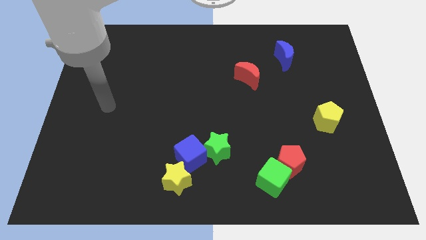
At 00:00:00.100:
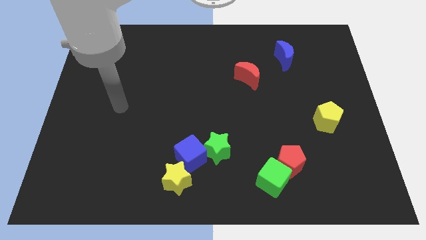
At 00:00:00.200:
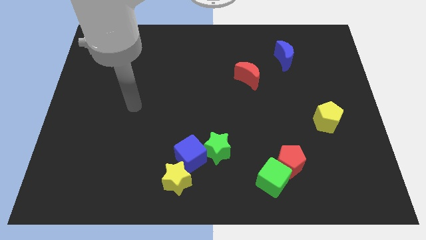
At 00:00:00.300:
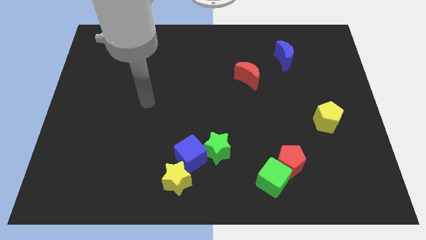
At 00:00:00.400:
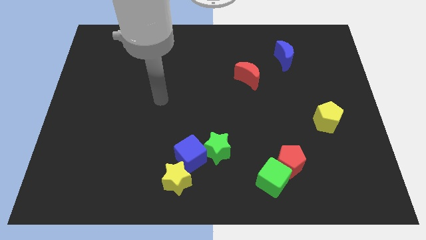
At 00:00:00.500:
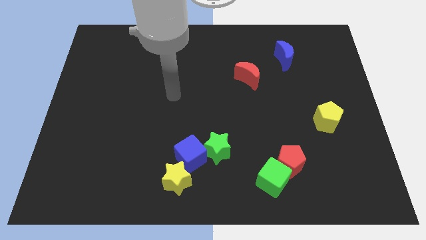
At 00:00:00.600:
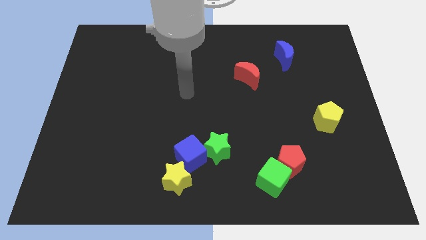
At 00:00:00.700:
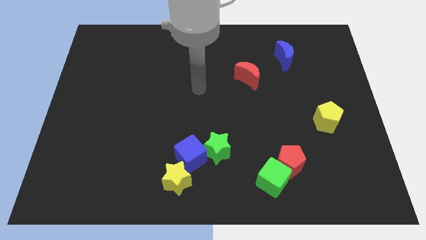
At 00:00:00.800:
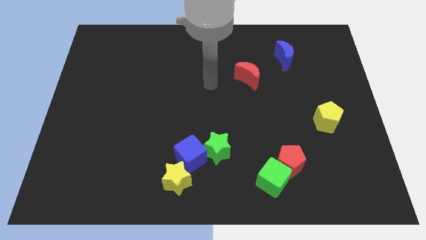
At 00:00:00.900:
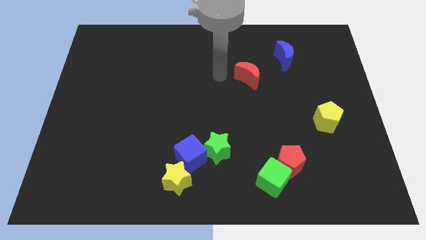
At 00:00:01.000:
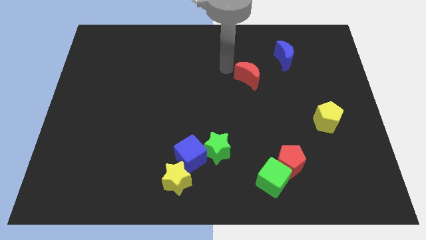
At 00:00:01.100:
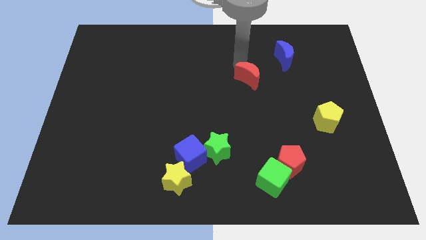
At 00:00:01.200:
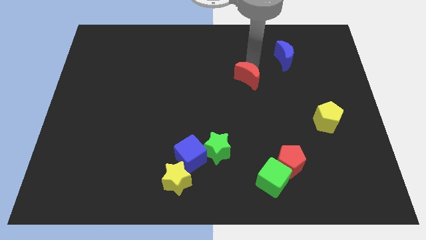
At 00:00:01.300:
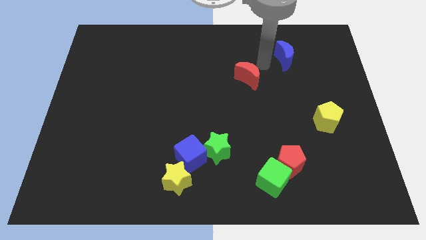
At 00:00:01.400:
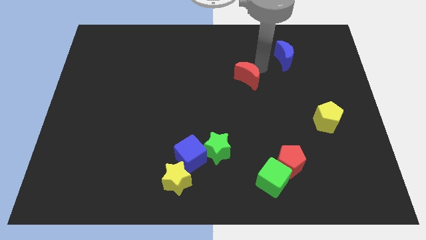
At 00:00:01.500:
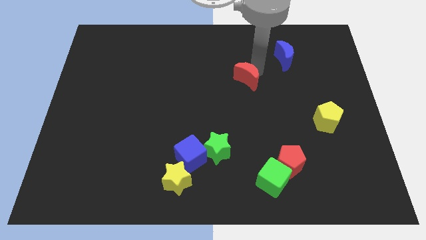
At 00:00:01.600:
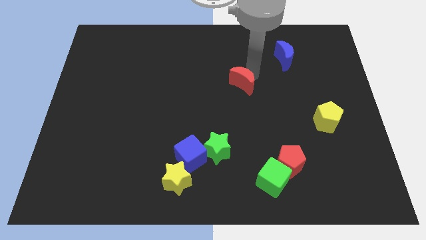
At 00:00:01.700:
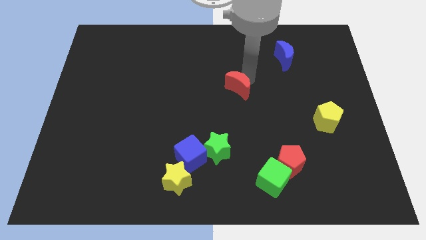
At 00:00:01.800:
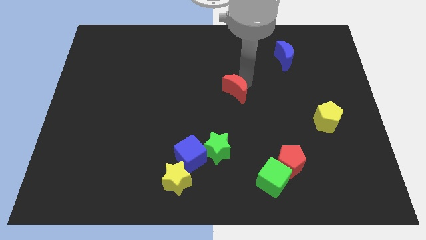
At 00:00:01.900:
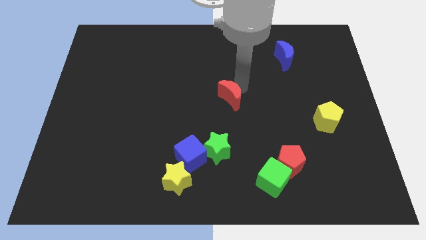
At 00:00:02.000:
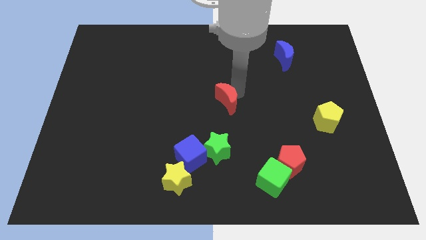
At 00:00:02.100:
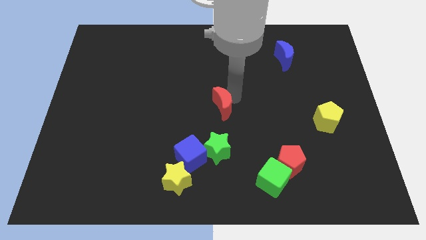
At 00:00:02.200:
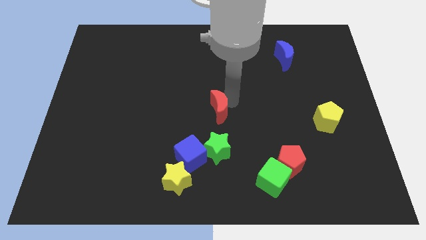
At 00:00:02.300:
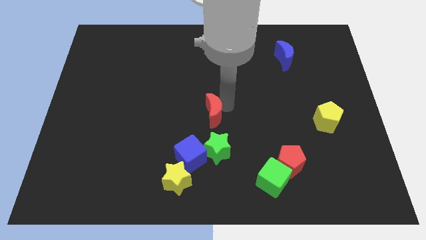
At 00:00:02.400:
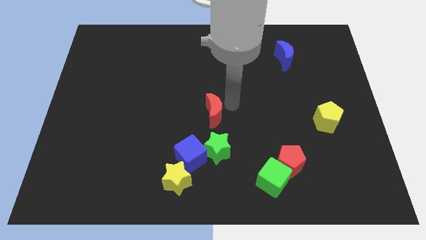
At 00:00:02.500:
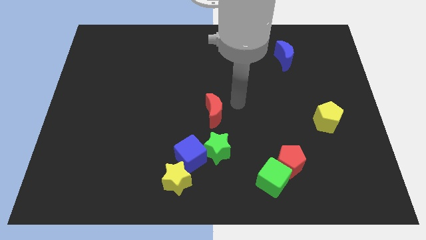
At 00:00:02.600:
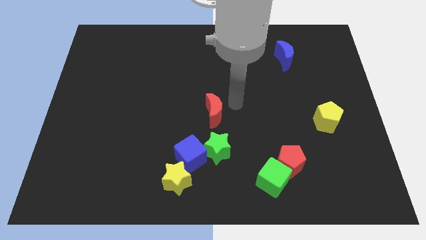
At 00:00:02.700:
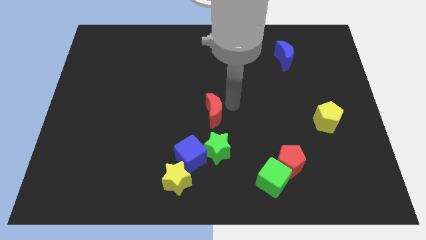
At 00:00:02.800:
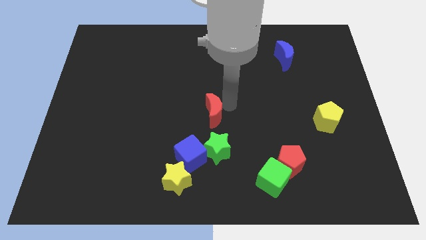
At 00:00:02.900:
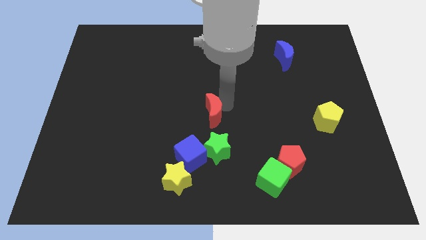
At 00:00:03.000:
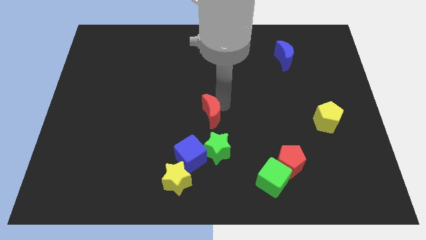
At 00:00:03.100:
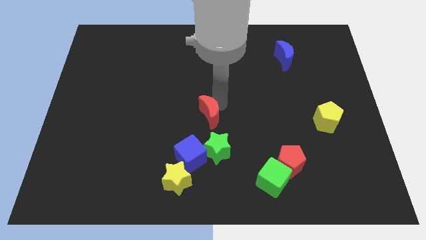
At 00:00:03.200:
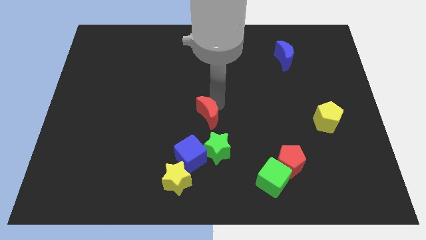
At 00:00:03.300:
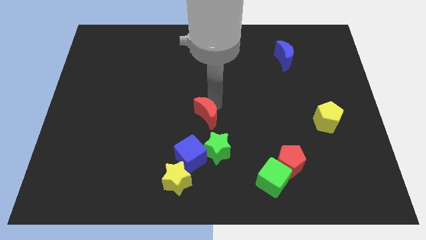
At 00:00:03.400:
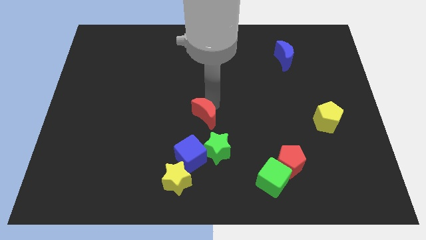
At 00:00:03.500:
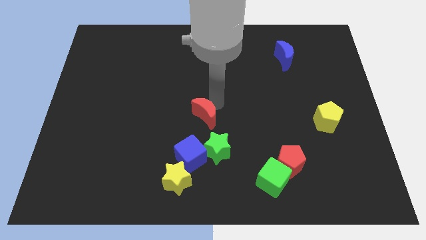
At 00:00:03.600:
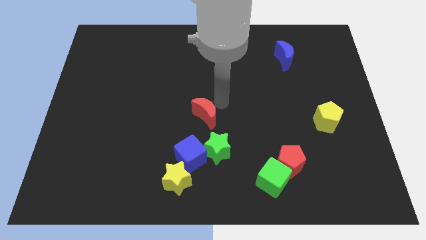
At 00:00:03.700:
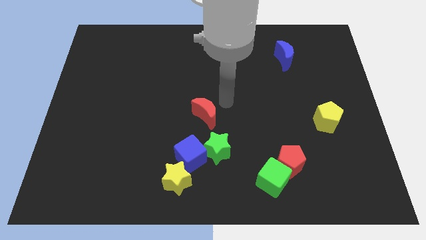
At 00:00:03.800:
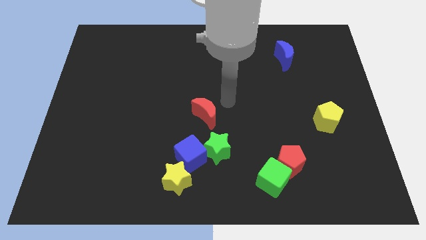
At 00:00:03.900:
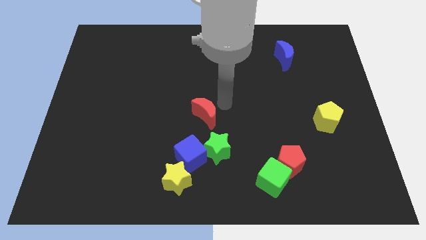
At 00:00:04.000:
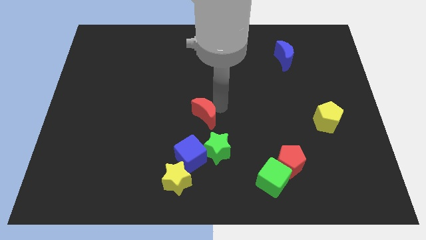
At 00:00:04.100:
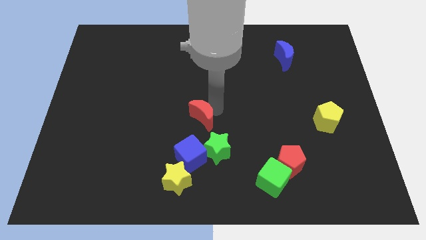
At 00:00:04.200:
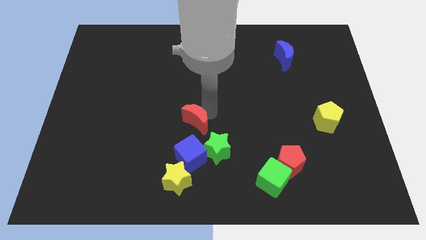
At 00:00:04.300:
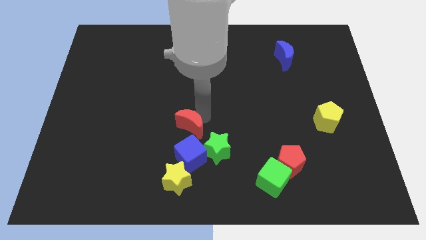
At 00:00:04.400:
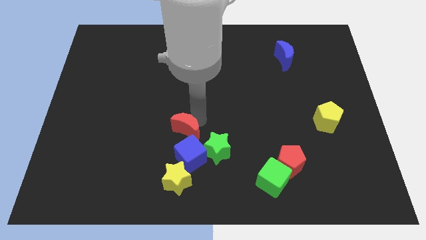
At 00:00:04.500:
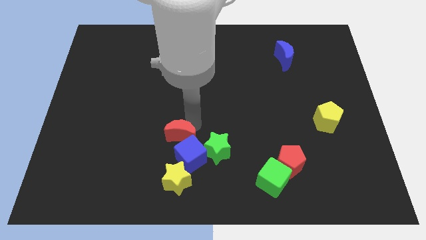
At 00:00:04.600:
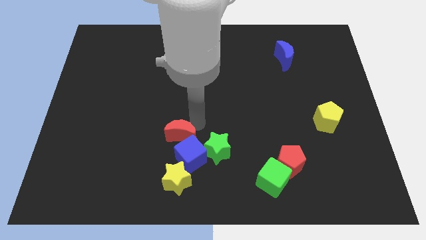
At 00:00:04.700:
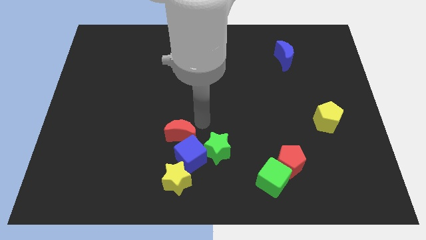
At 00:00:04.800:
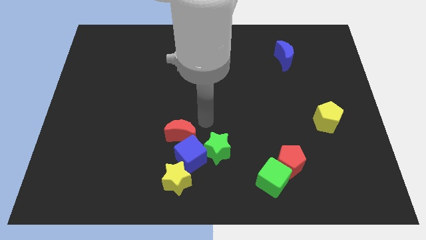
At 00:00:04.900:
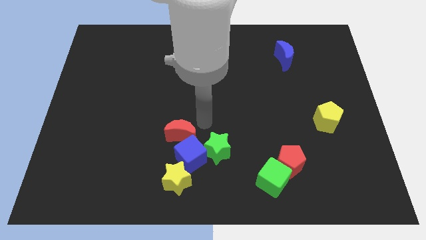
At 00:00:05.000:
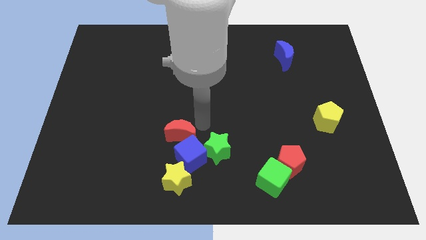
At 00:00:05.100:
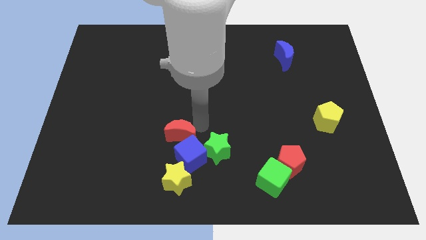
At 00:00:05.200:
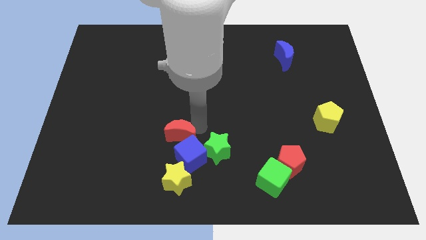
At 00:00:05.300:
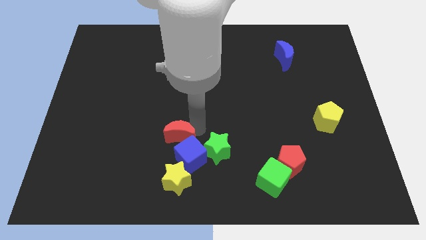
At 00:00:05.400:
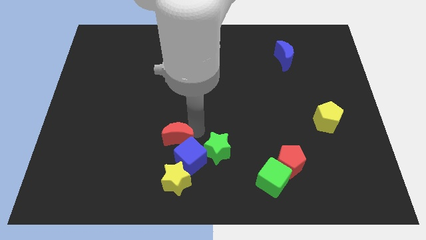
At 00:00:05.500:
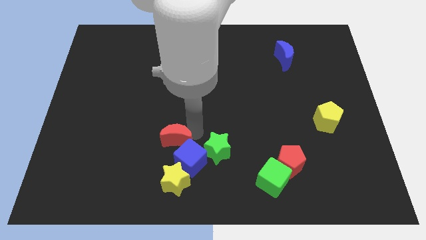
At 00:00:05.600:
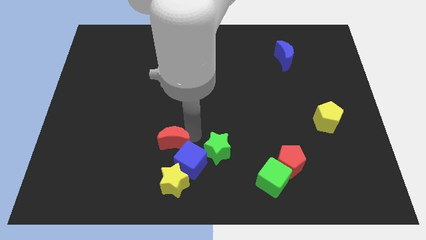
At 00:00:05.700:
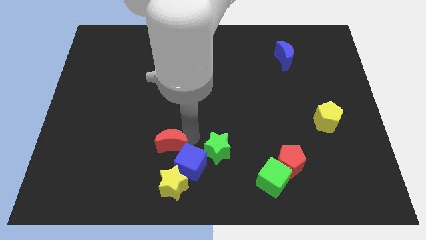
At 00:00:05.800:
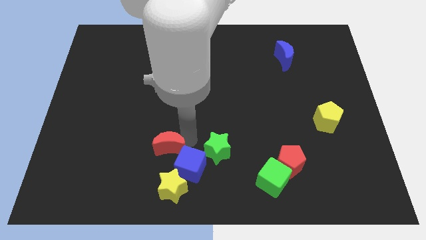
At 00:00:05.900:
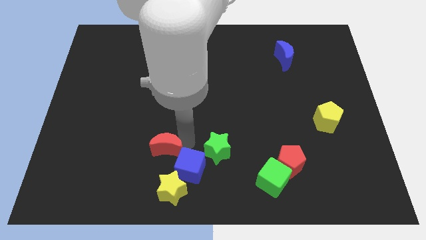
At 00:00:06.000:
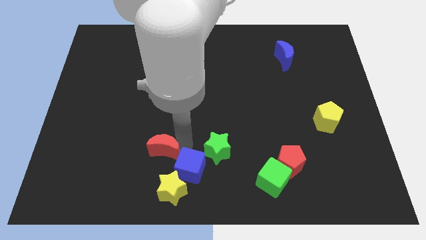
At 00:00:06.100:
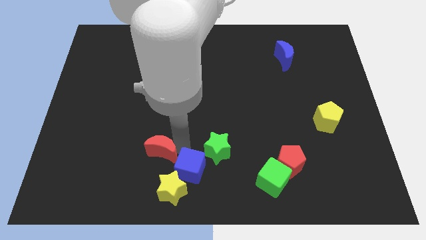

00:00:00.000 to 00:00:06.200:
put the red moon to the top left side of the yellow star

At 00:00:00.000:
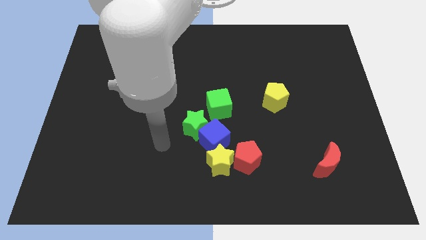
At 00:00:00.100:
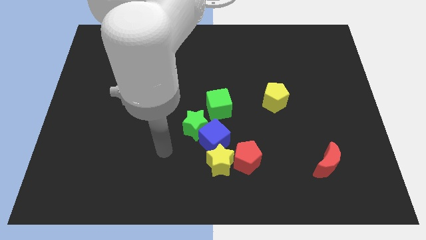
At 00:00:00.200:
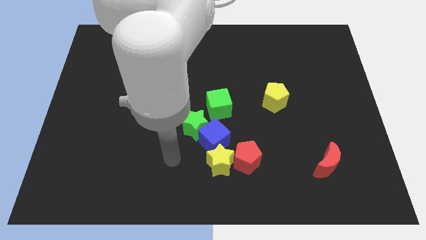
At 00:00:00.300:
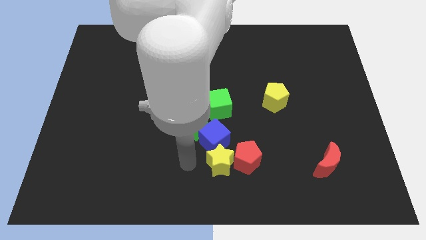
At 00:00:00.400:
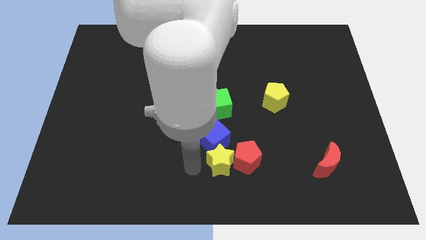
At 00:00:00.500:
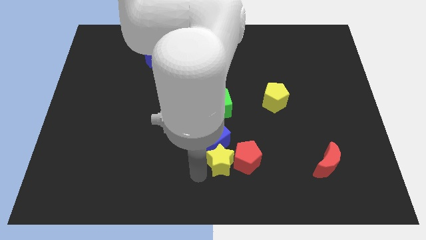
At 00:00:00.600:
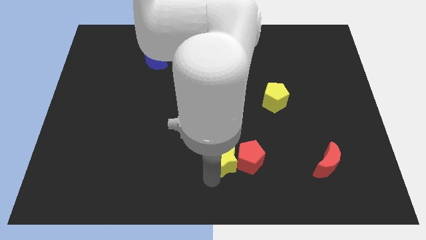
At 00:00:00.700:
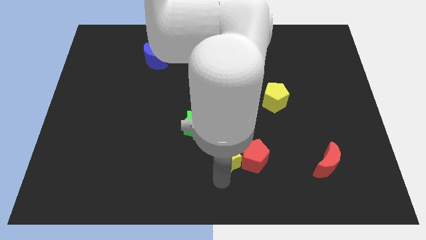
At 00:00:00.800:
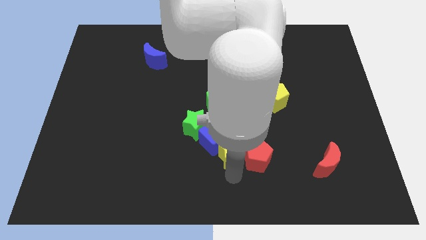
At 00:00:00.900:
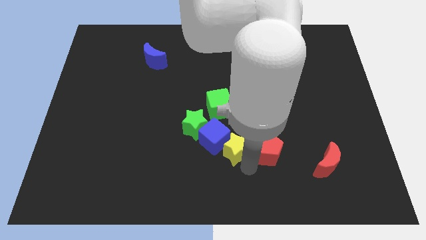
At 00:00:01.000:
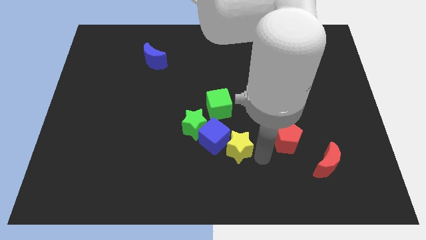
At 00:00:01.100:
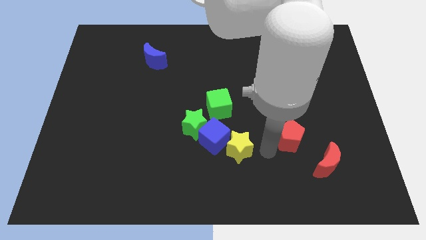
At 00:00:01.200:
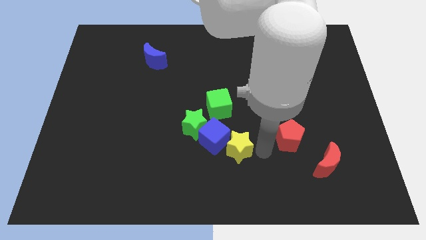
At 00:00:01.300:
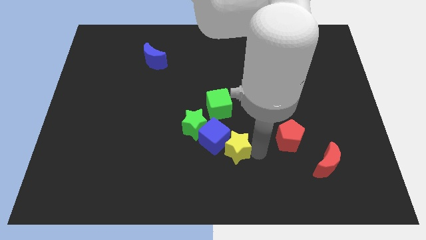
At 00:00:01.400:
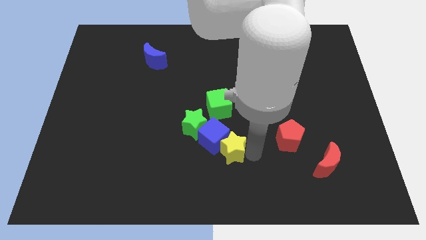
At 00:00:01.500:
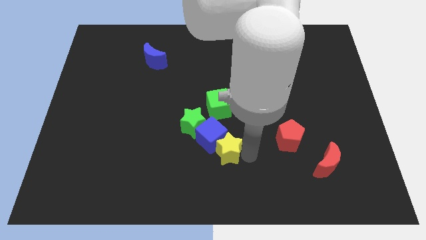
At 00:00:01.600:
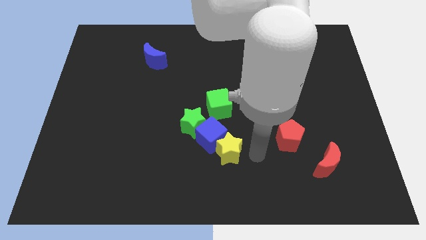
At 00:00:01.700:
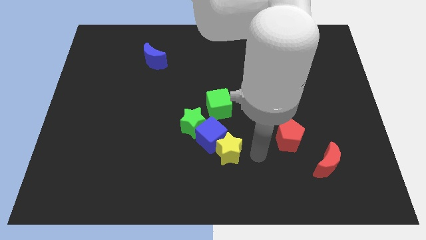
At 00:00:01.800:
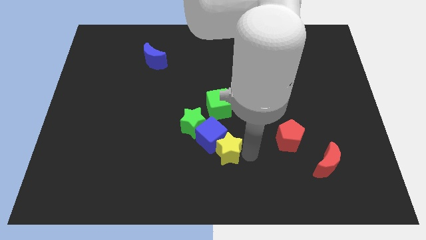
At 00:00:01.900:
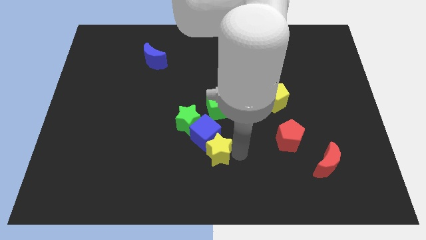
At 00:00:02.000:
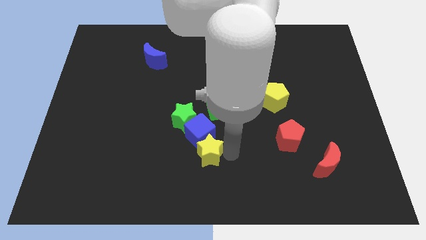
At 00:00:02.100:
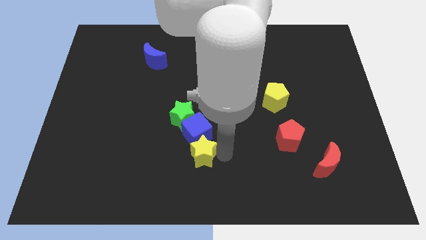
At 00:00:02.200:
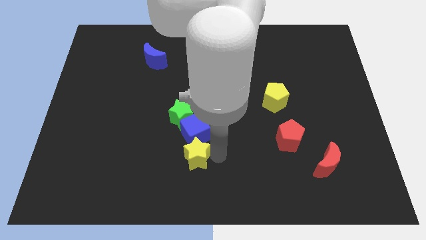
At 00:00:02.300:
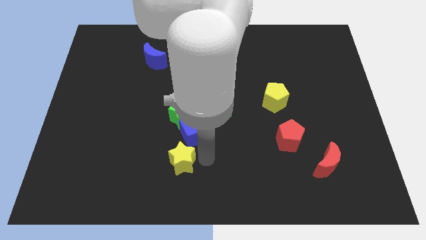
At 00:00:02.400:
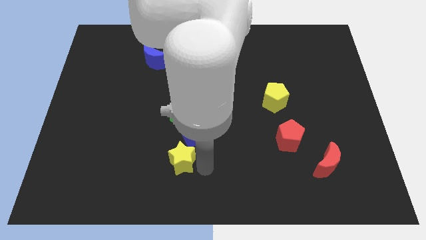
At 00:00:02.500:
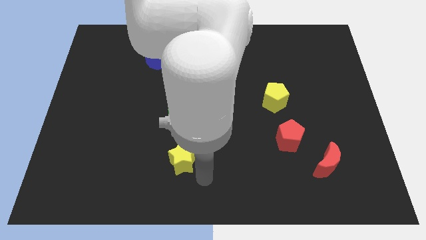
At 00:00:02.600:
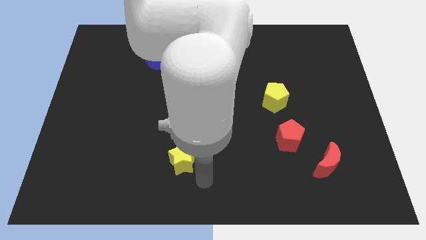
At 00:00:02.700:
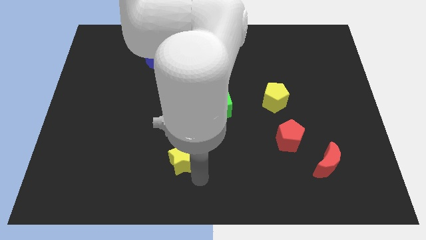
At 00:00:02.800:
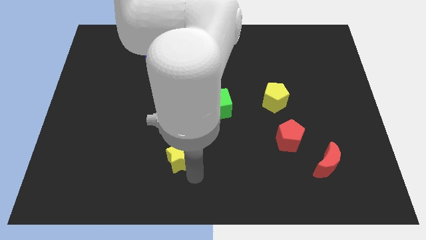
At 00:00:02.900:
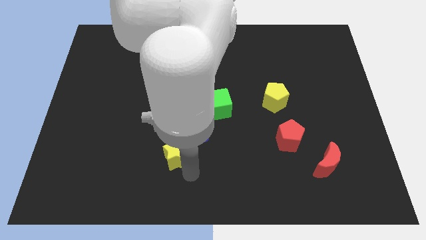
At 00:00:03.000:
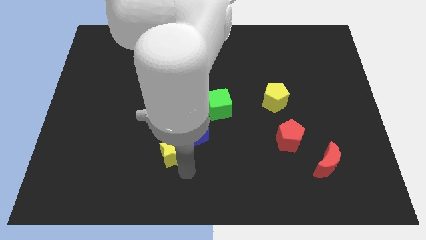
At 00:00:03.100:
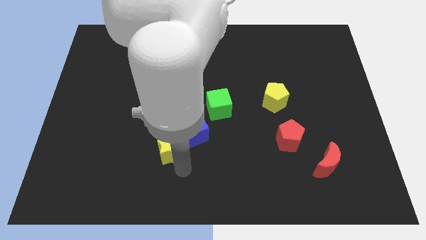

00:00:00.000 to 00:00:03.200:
put the yellow star just left of the blue cube
